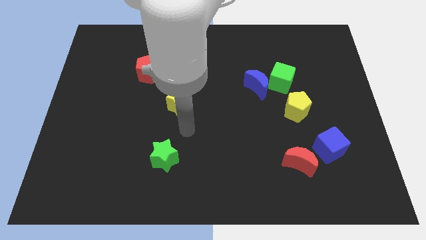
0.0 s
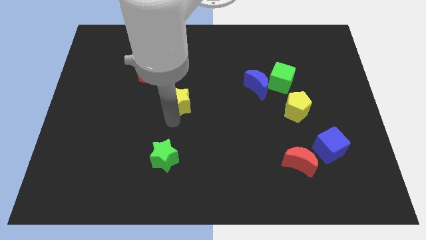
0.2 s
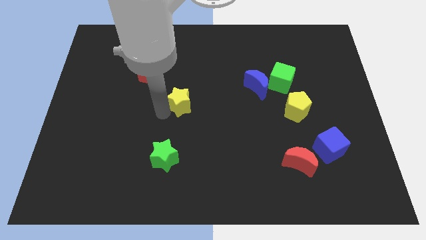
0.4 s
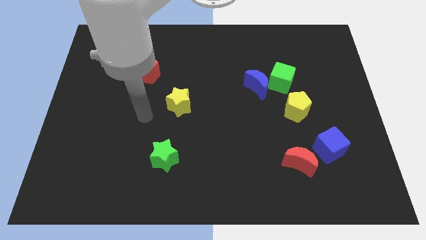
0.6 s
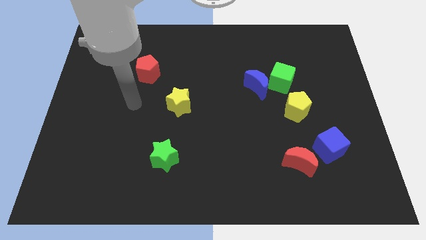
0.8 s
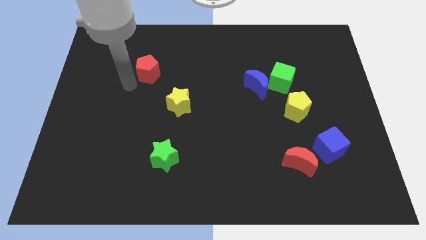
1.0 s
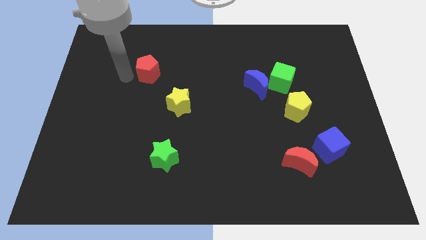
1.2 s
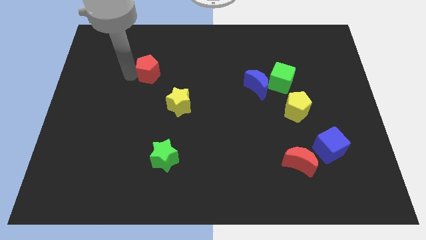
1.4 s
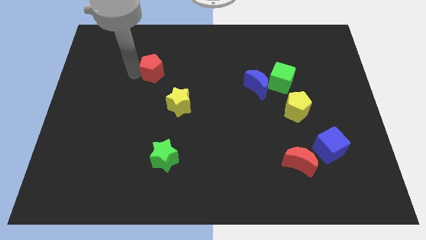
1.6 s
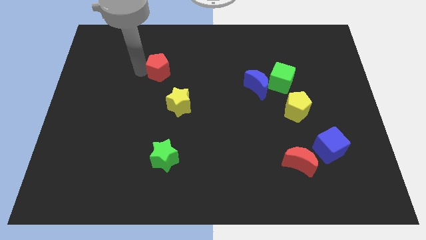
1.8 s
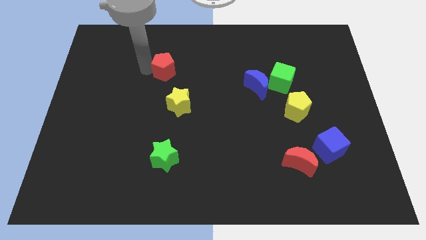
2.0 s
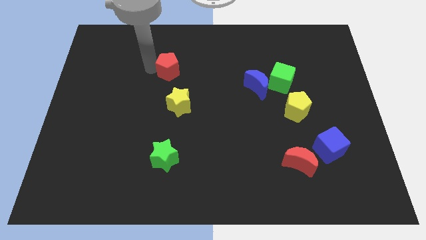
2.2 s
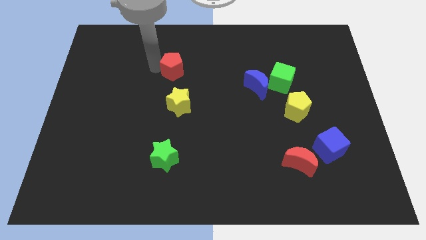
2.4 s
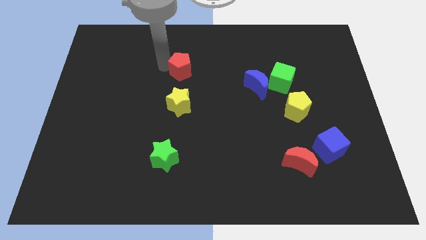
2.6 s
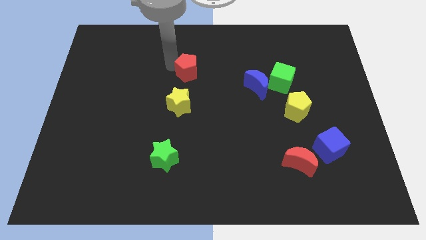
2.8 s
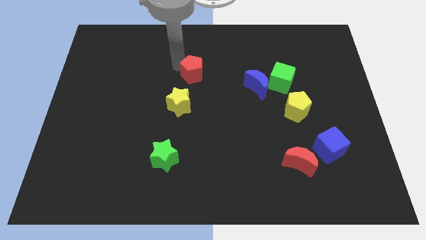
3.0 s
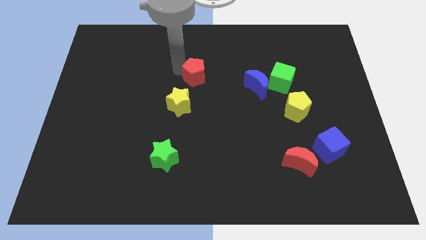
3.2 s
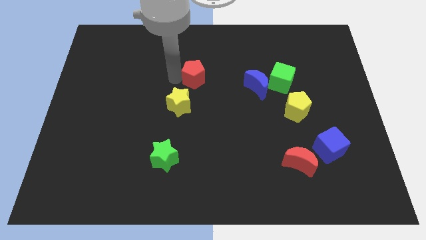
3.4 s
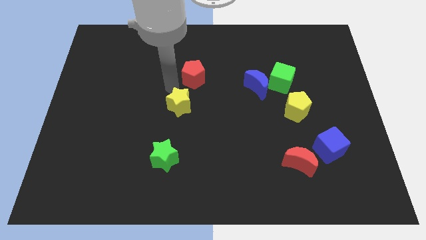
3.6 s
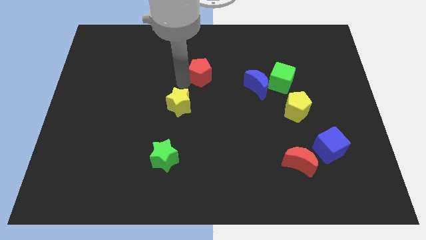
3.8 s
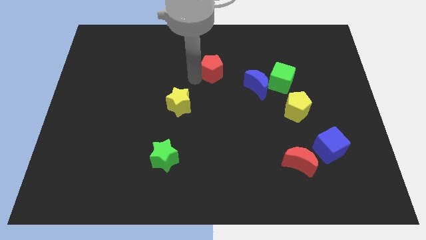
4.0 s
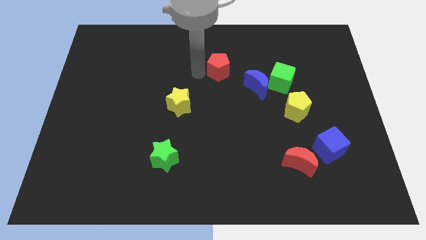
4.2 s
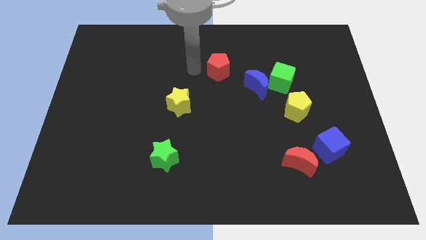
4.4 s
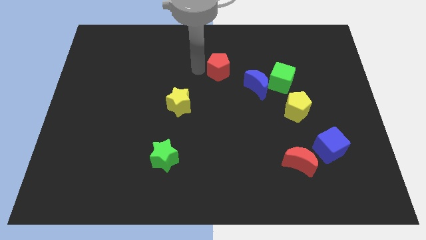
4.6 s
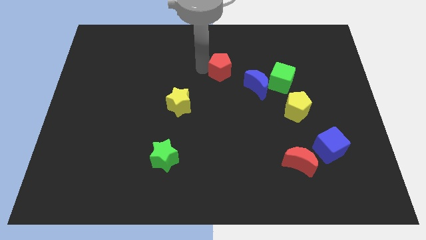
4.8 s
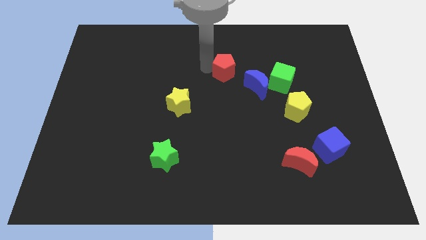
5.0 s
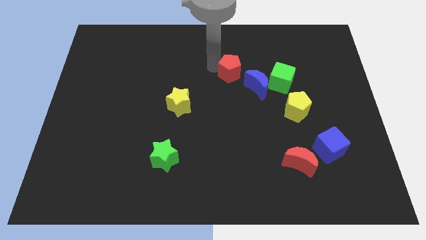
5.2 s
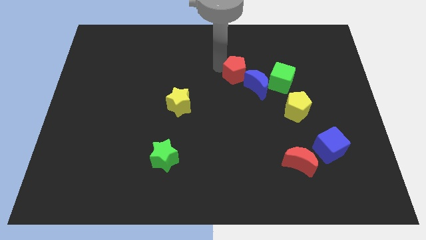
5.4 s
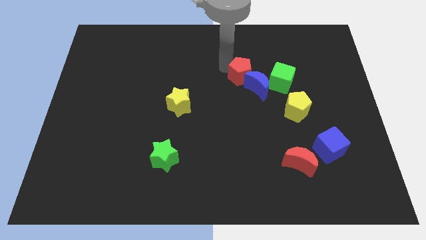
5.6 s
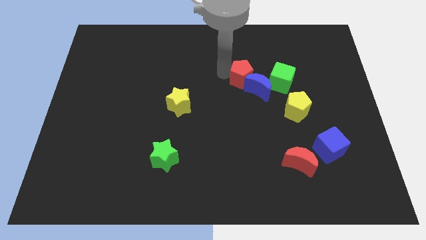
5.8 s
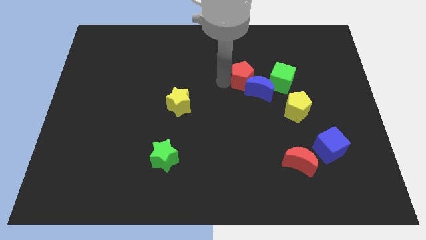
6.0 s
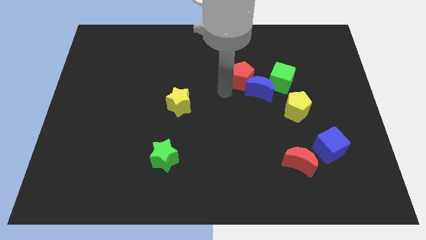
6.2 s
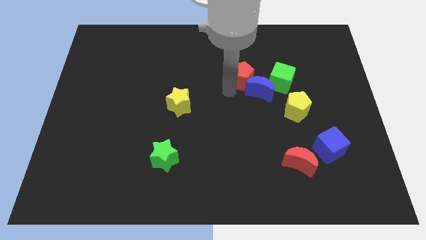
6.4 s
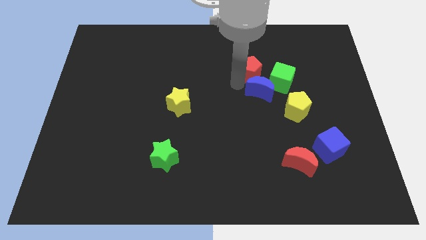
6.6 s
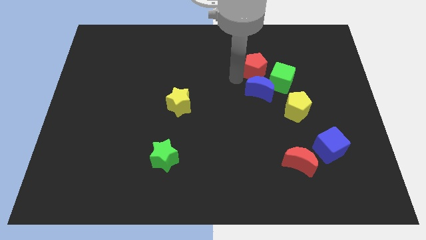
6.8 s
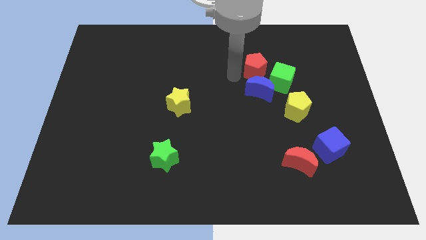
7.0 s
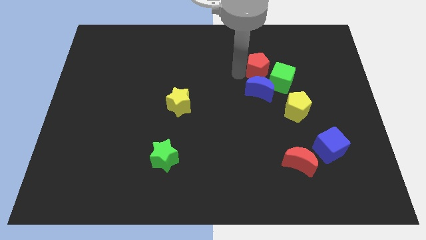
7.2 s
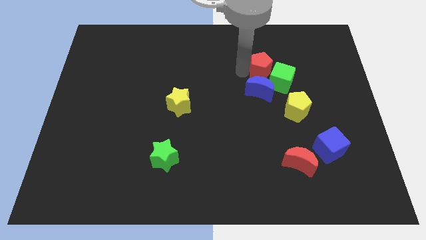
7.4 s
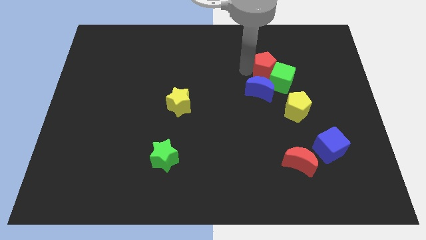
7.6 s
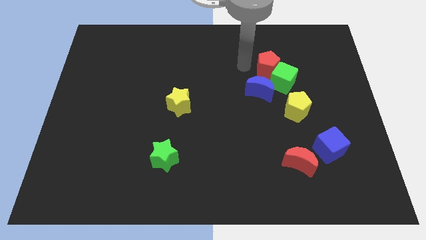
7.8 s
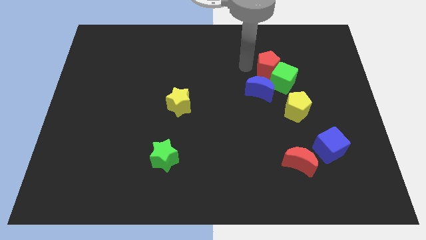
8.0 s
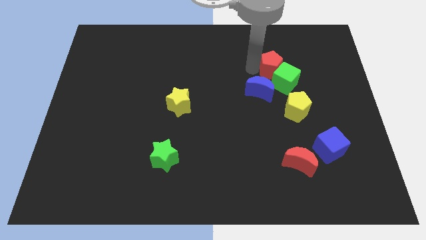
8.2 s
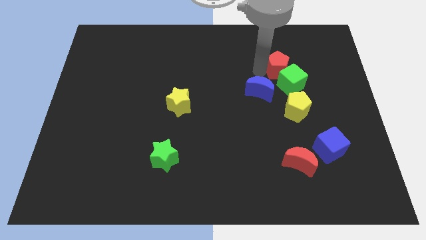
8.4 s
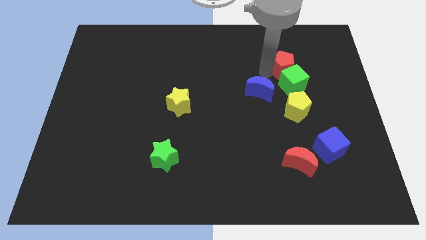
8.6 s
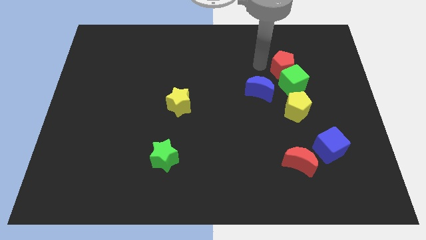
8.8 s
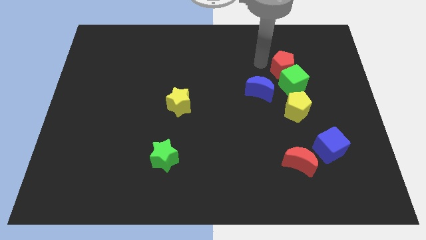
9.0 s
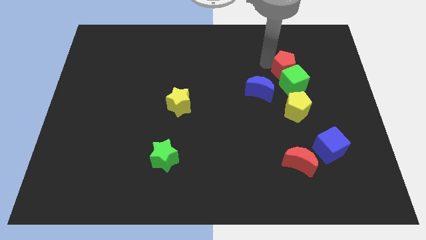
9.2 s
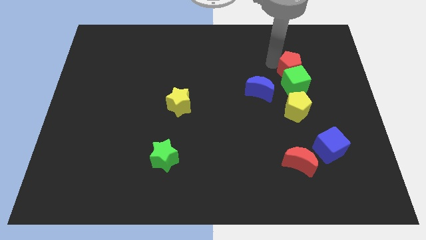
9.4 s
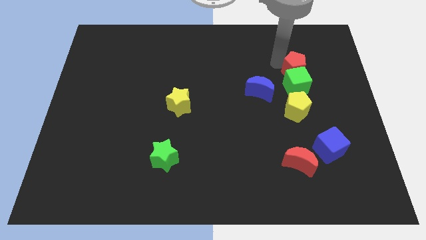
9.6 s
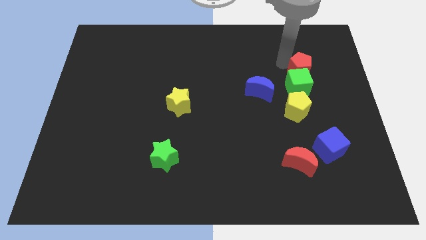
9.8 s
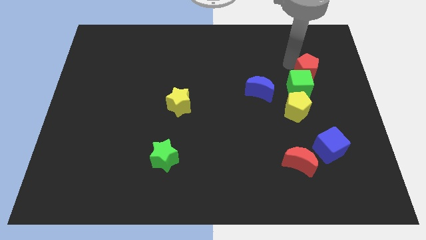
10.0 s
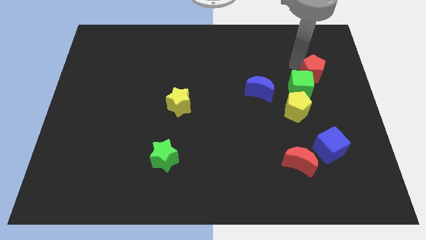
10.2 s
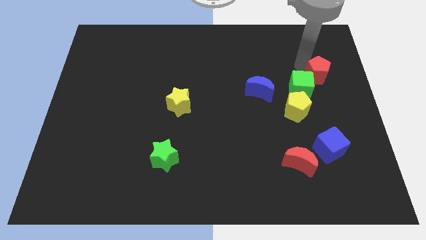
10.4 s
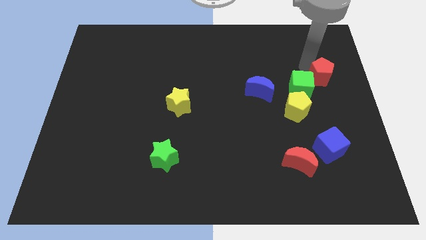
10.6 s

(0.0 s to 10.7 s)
put the red pentagon to the right side
